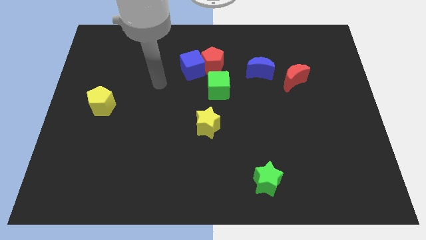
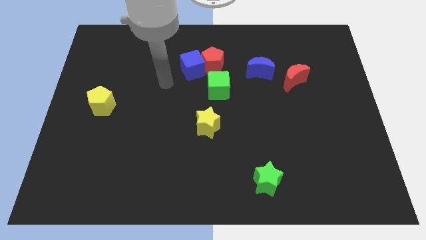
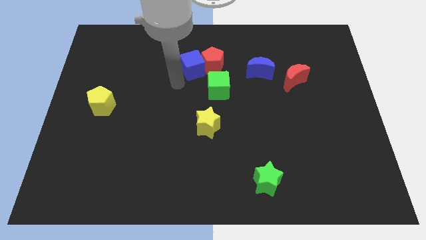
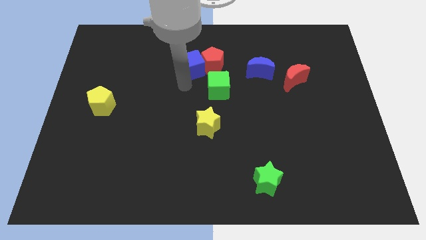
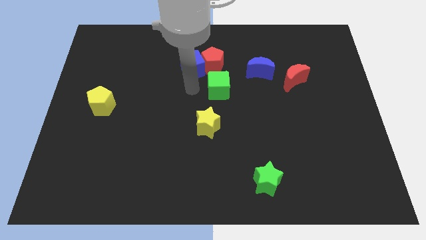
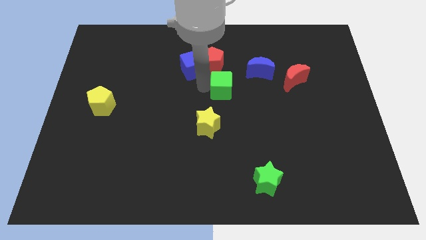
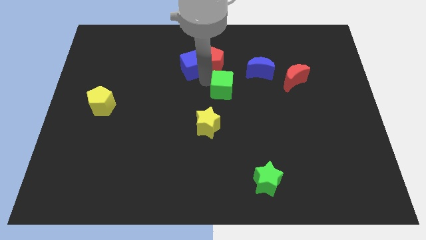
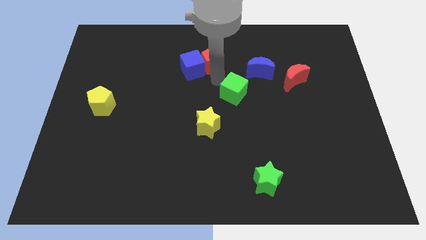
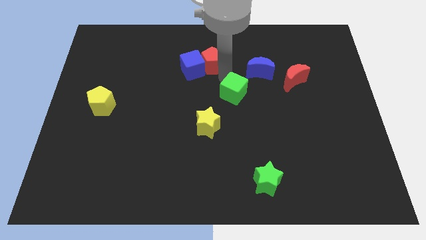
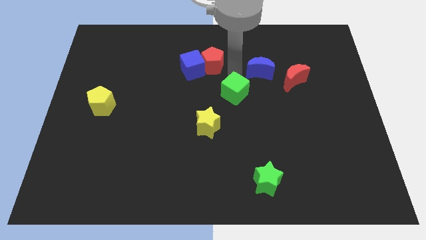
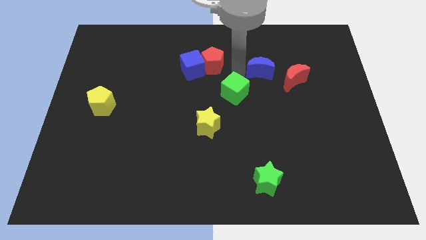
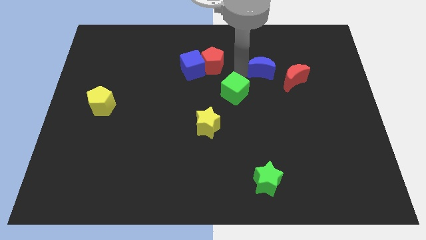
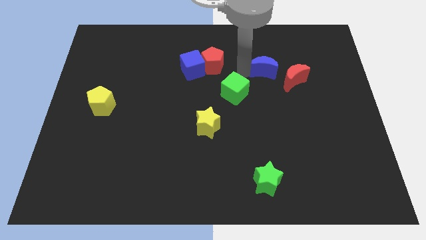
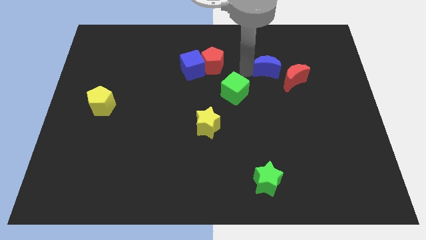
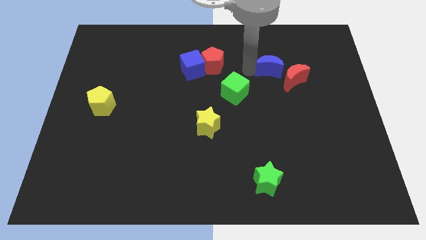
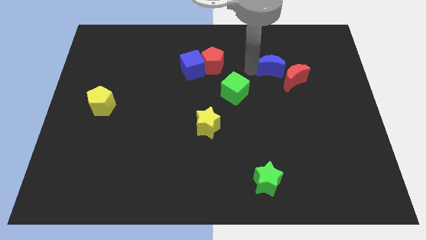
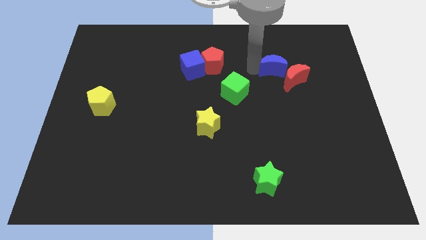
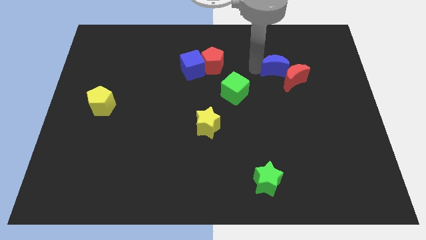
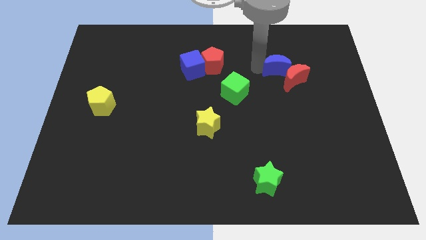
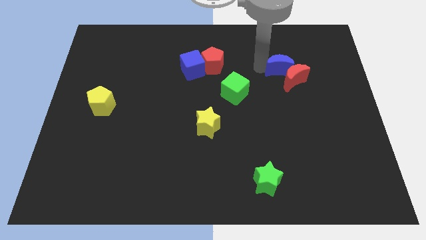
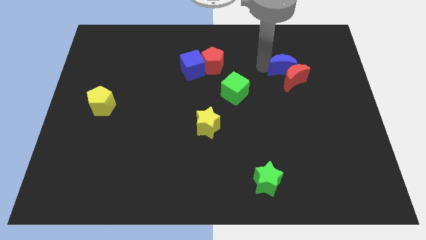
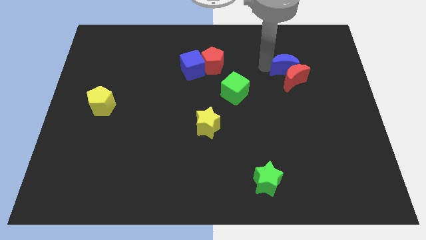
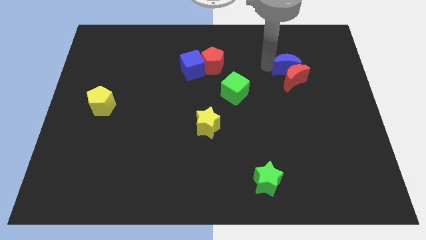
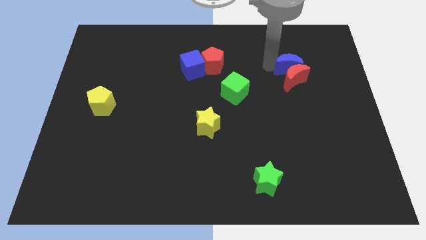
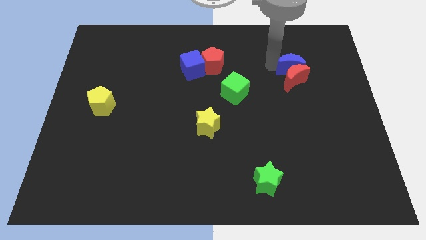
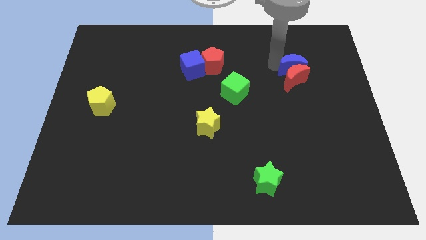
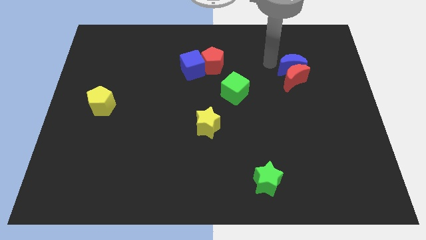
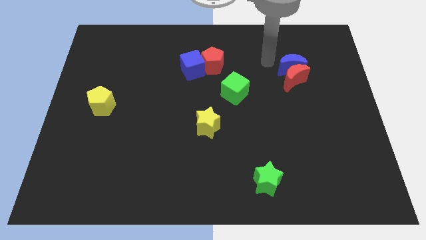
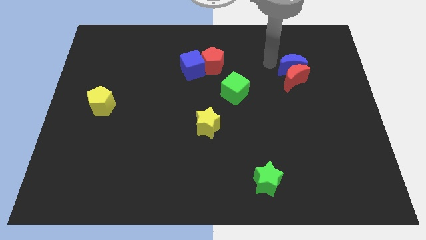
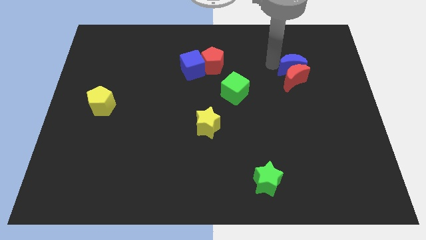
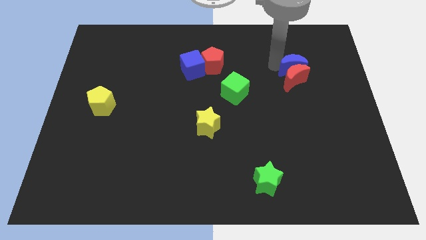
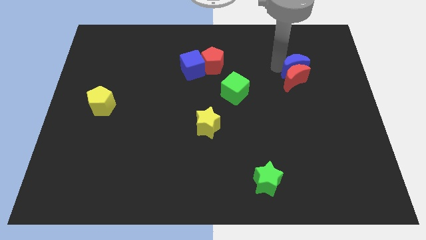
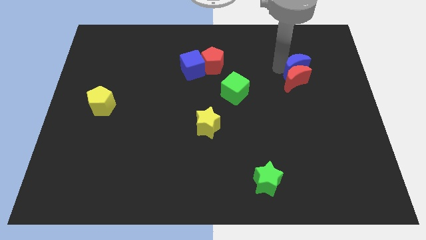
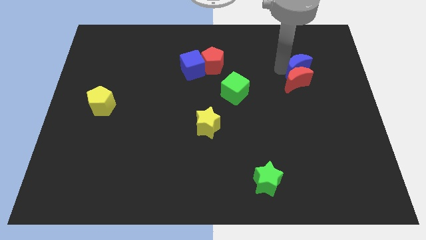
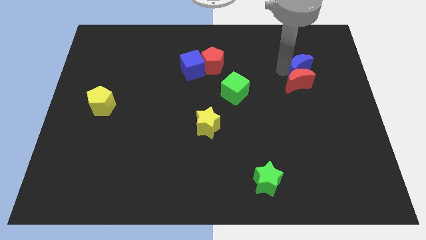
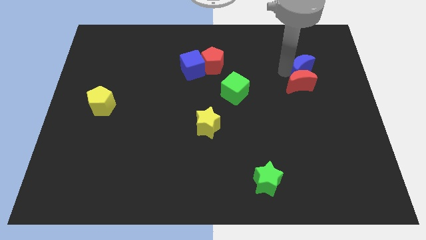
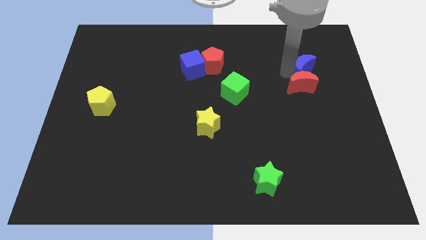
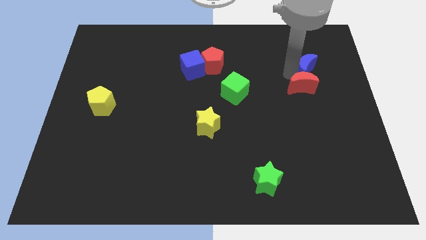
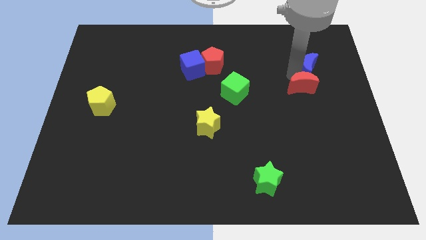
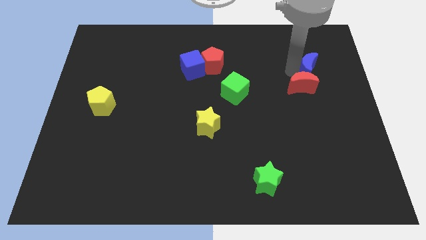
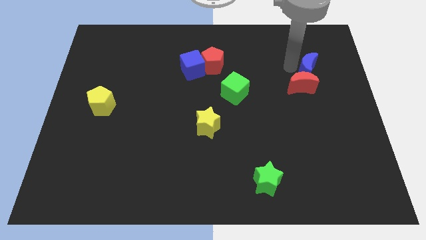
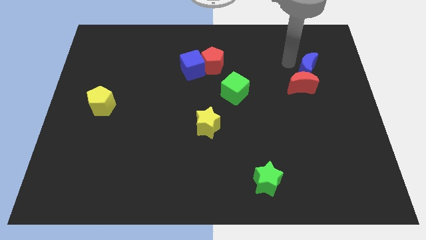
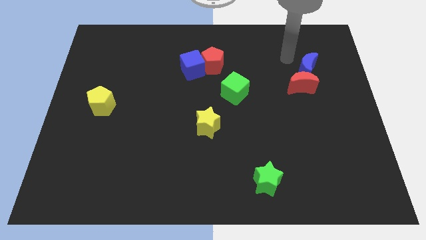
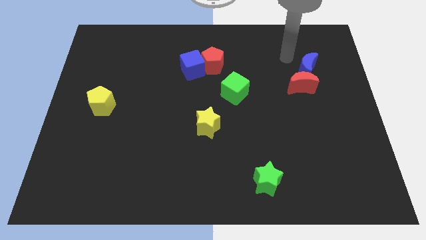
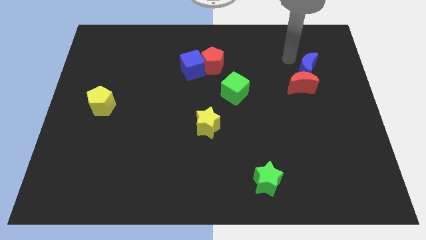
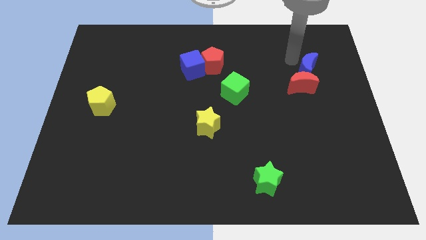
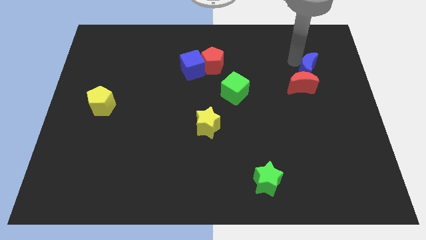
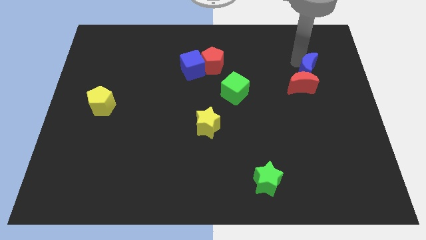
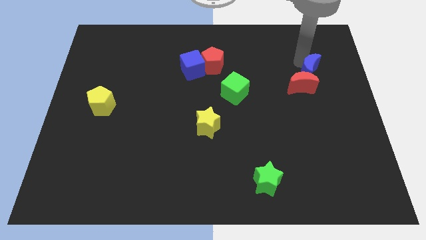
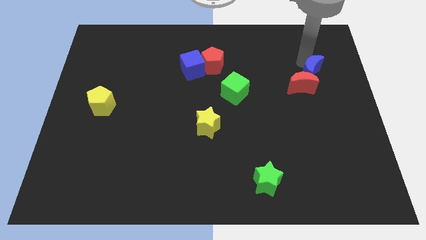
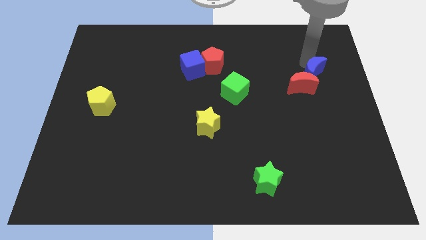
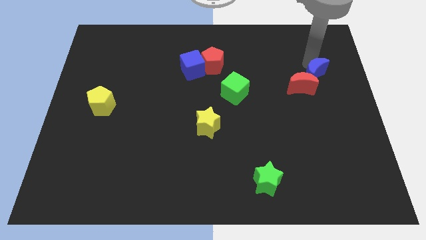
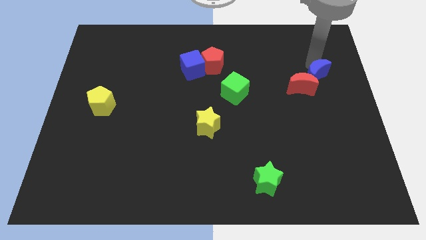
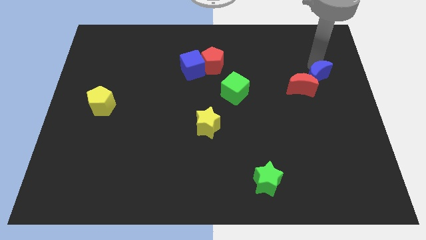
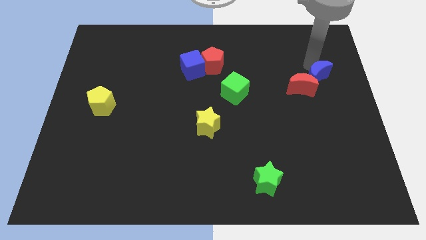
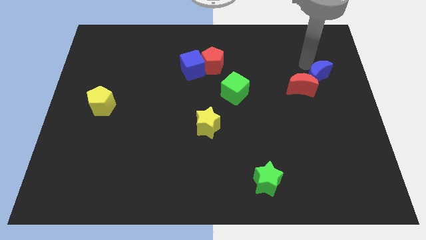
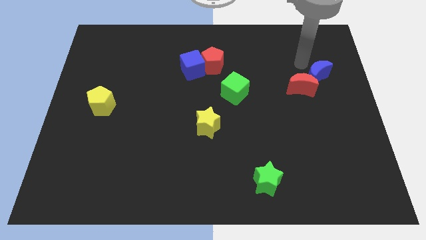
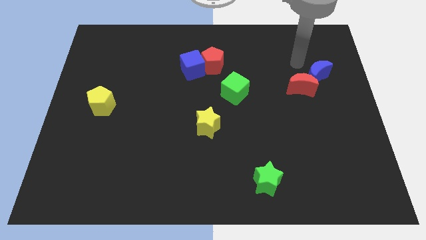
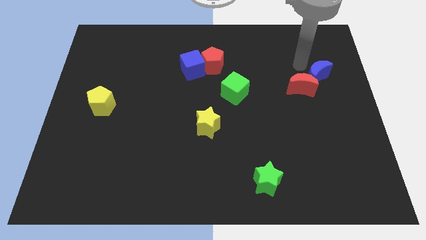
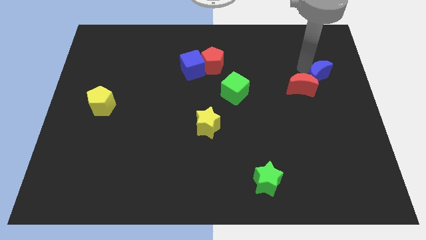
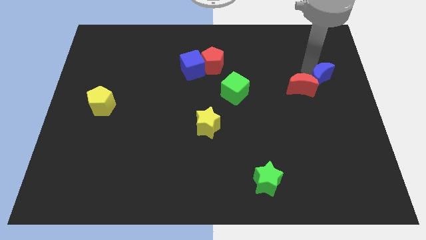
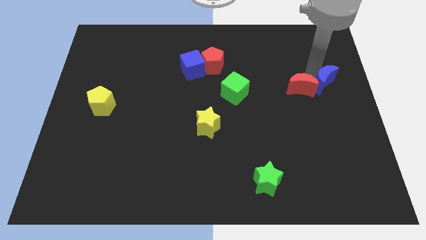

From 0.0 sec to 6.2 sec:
slide the blue moon to the center right
